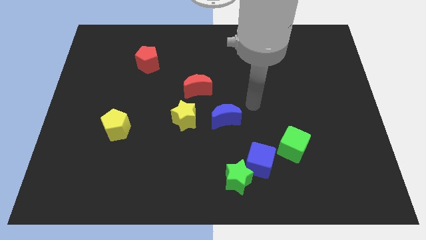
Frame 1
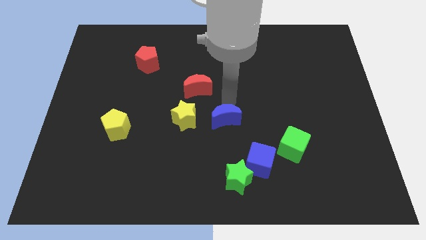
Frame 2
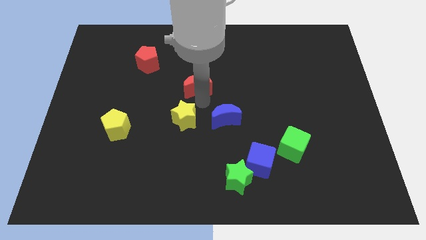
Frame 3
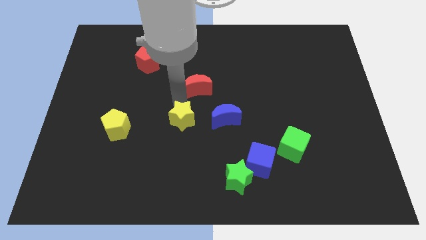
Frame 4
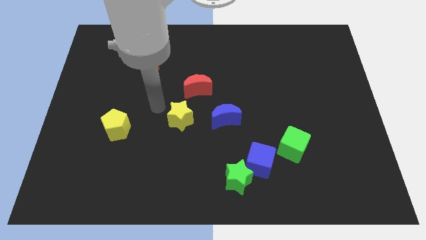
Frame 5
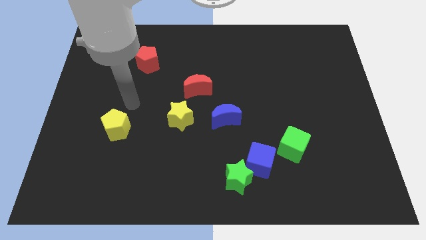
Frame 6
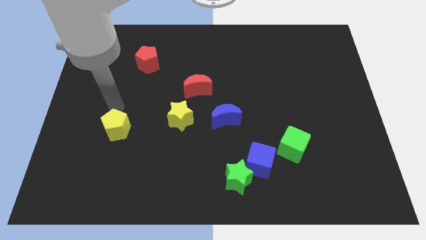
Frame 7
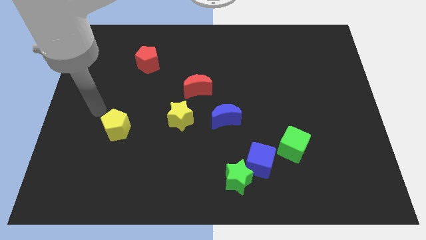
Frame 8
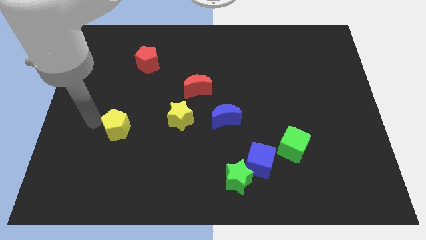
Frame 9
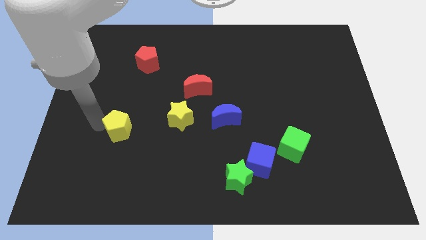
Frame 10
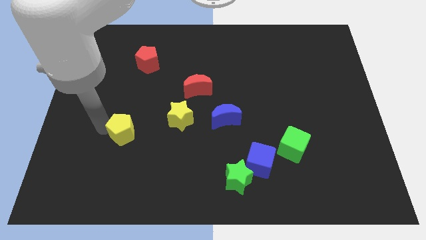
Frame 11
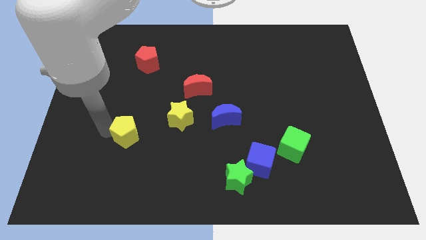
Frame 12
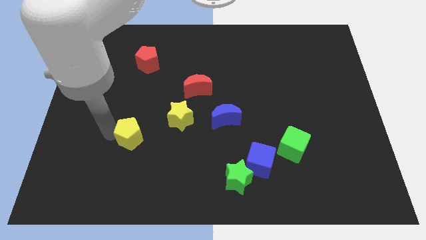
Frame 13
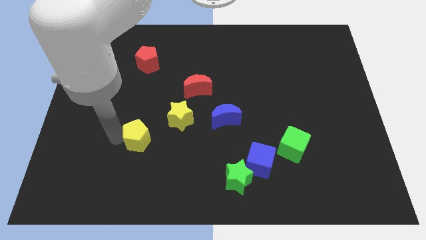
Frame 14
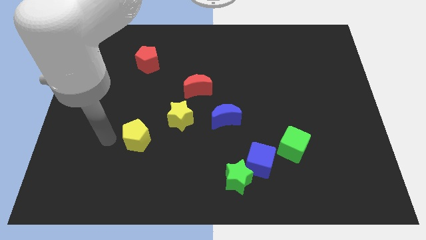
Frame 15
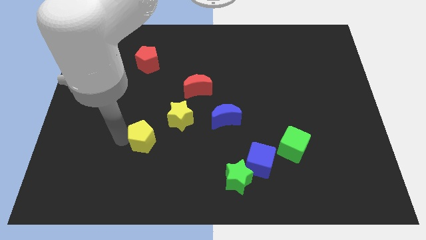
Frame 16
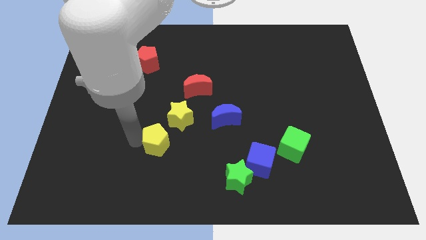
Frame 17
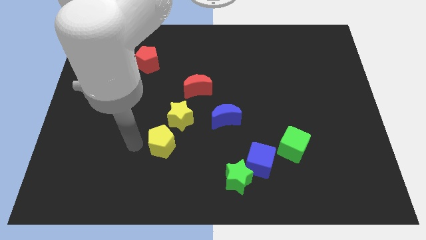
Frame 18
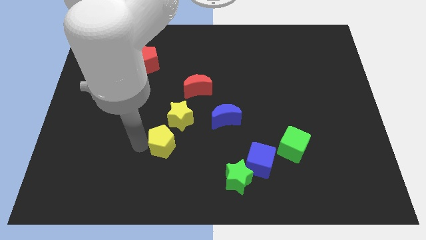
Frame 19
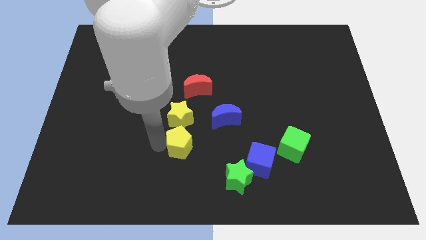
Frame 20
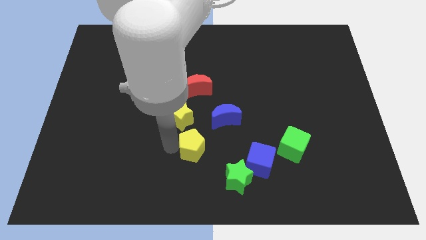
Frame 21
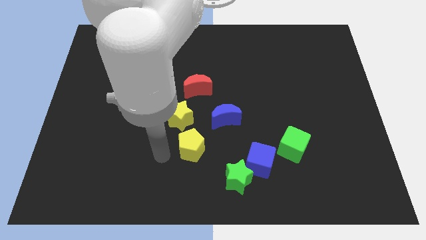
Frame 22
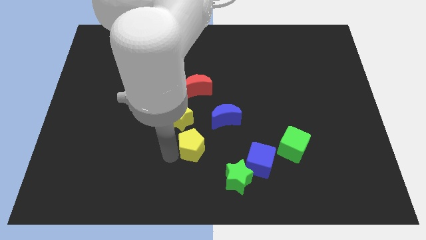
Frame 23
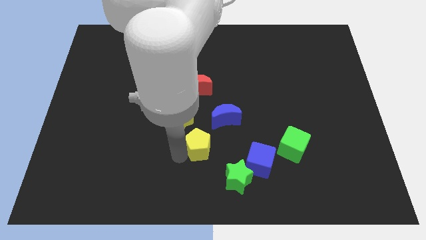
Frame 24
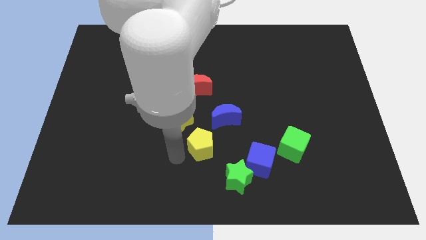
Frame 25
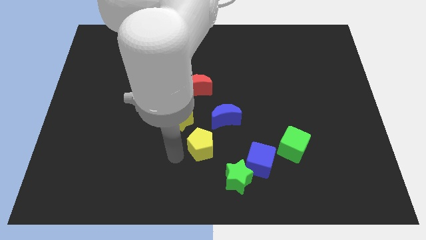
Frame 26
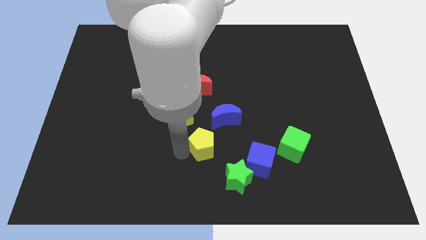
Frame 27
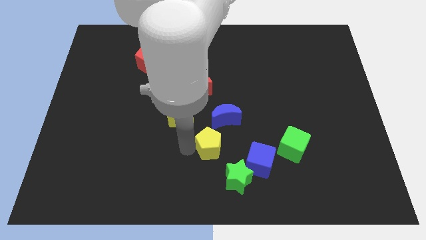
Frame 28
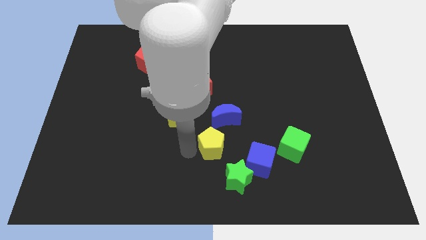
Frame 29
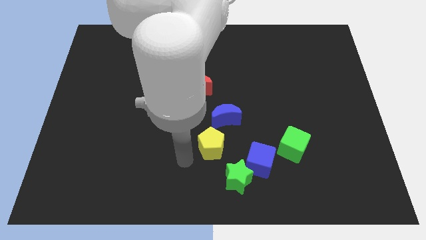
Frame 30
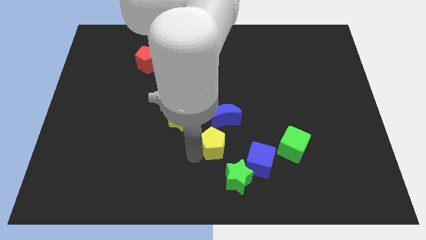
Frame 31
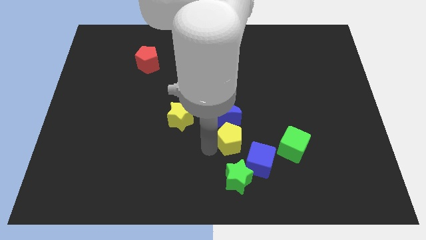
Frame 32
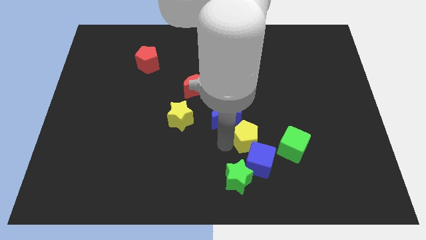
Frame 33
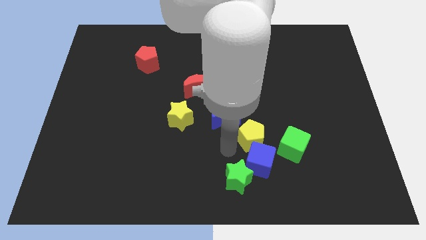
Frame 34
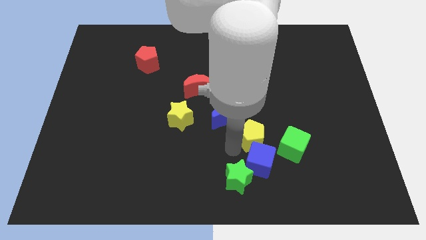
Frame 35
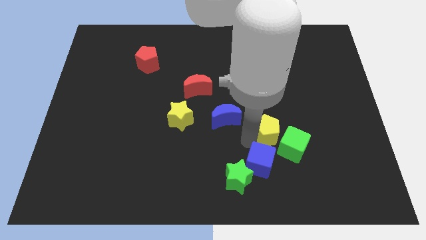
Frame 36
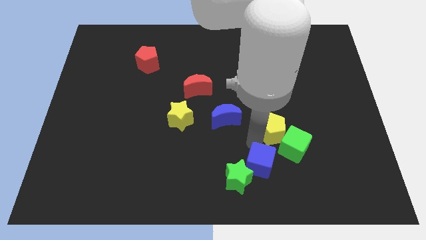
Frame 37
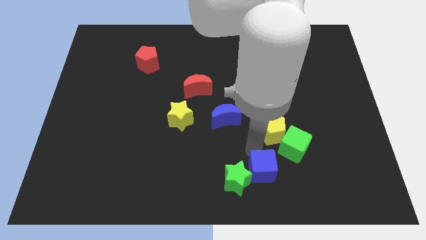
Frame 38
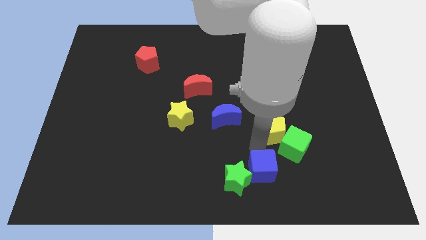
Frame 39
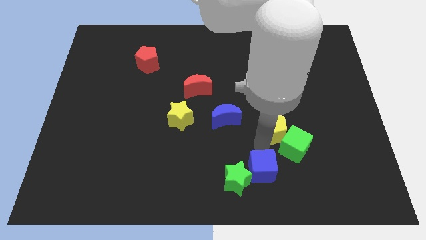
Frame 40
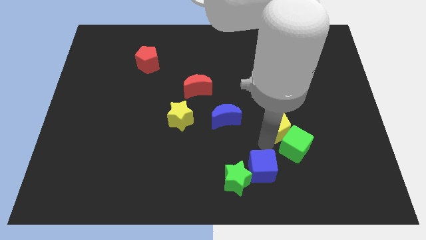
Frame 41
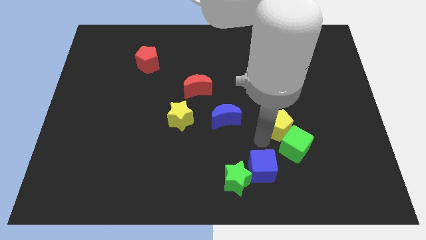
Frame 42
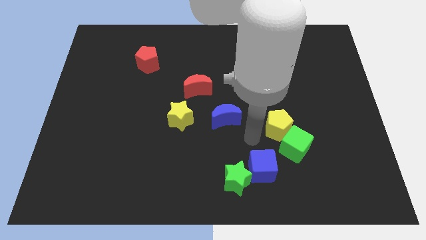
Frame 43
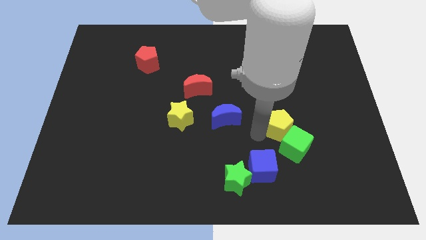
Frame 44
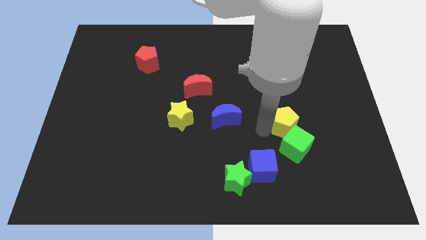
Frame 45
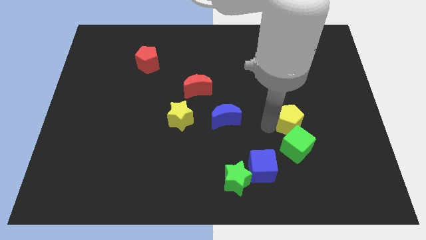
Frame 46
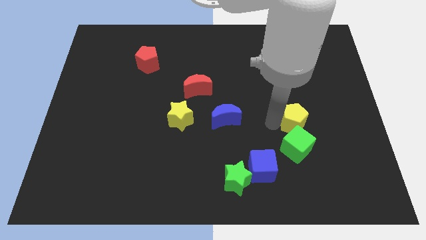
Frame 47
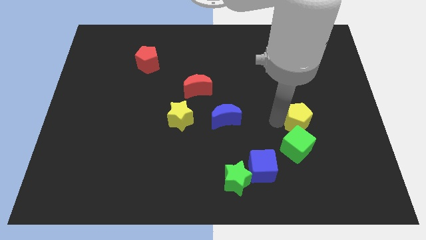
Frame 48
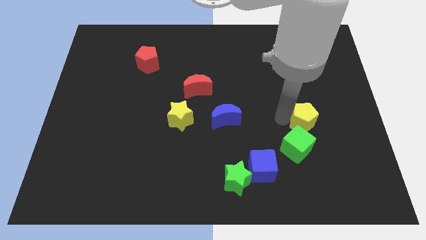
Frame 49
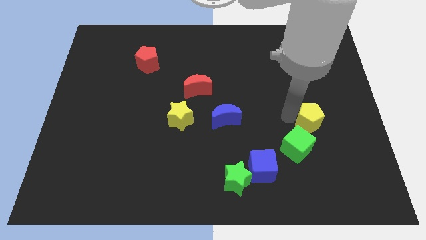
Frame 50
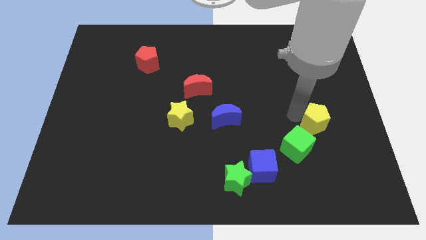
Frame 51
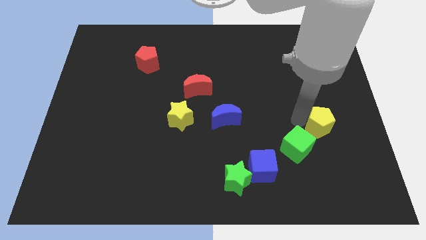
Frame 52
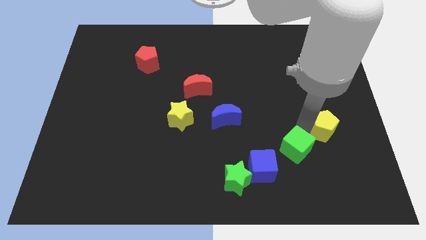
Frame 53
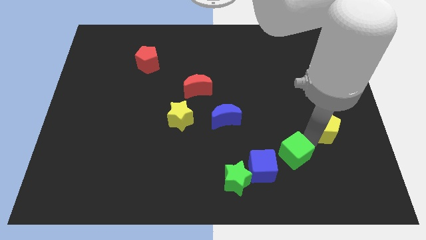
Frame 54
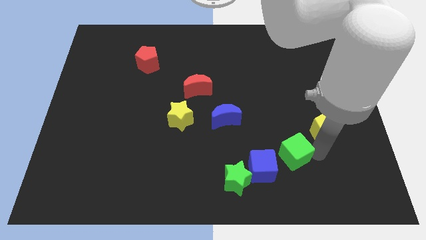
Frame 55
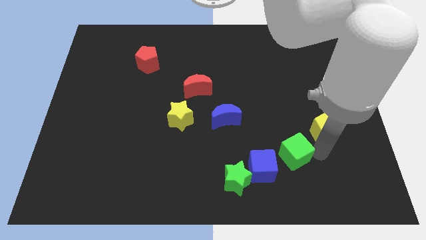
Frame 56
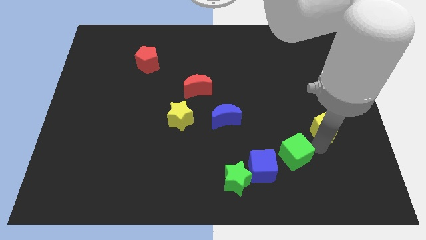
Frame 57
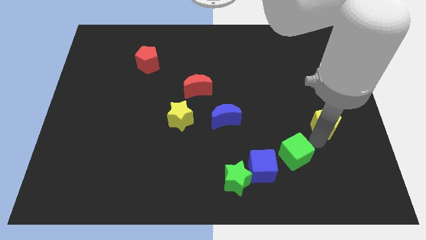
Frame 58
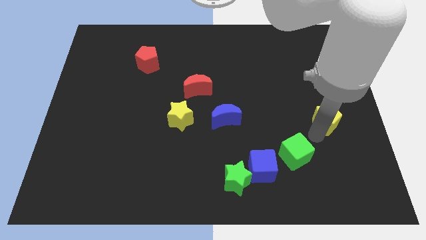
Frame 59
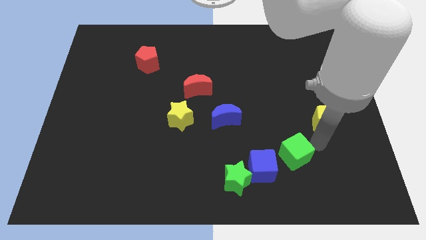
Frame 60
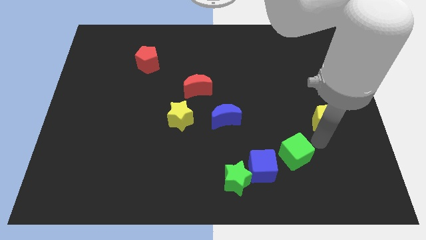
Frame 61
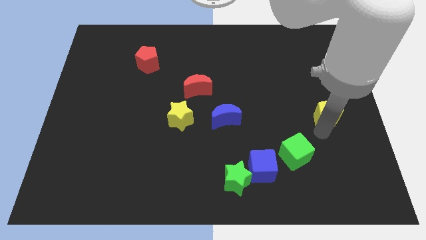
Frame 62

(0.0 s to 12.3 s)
slide the yellow pentagon to the right side
